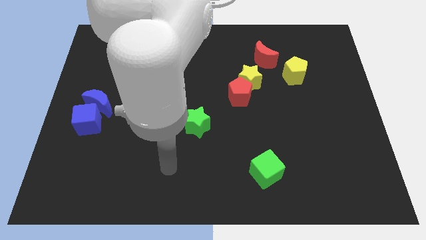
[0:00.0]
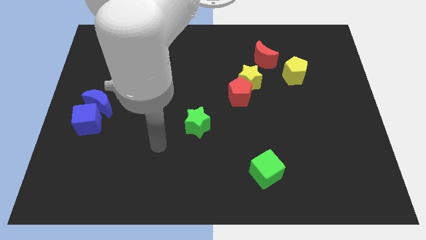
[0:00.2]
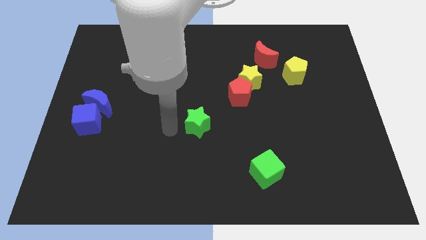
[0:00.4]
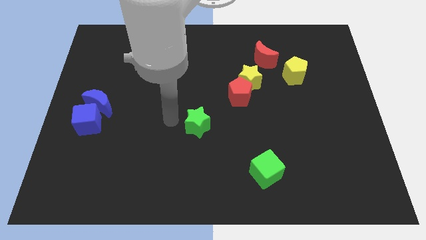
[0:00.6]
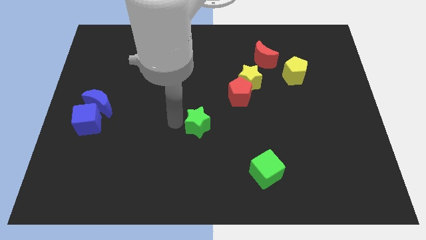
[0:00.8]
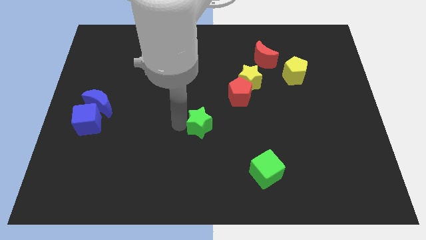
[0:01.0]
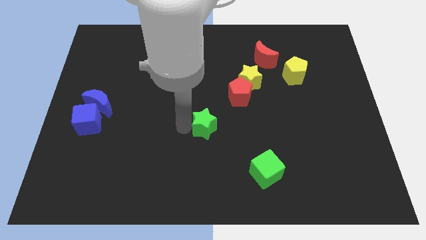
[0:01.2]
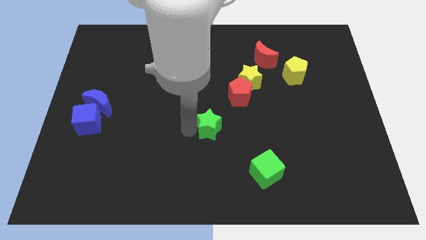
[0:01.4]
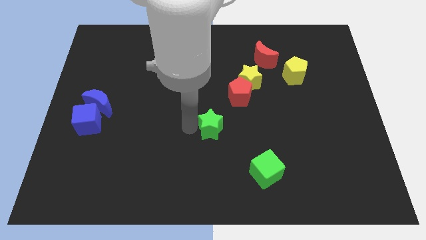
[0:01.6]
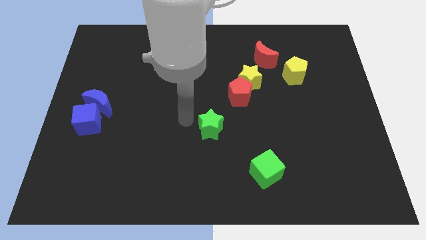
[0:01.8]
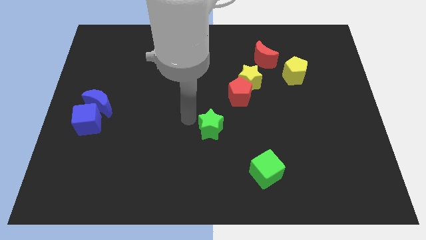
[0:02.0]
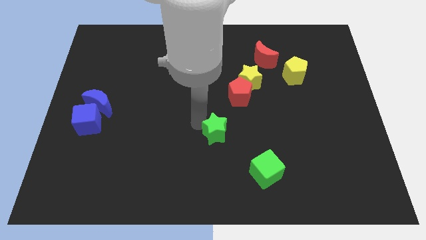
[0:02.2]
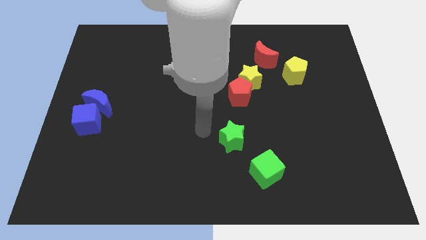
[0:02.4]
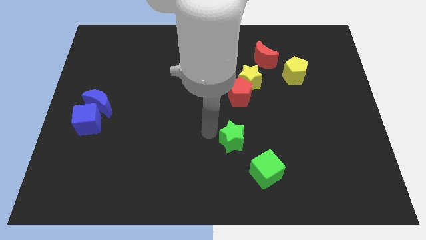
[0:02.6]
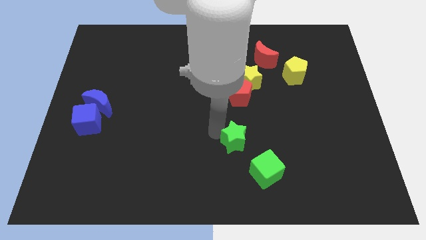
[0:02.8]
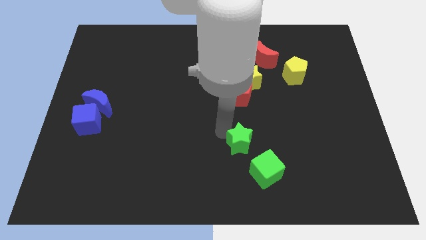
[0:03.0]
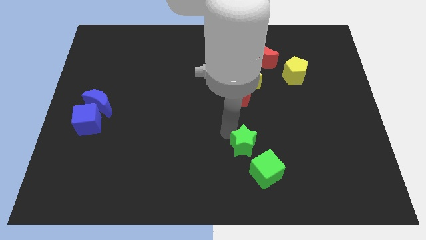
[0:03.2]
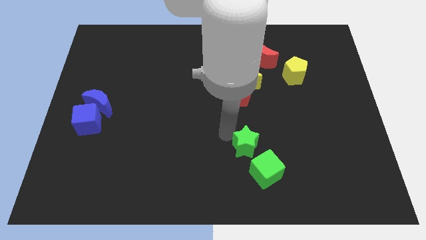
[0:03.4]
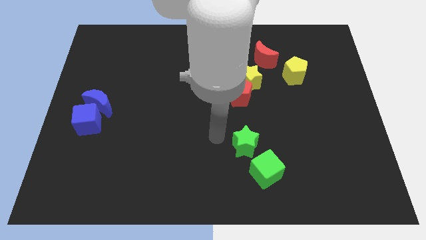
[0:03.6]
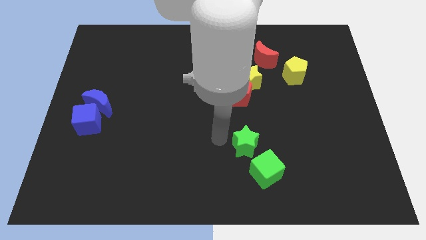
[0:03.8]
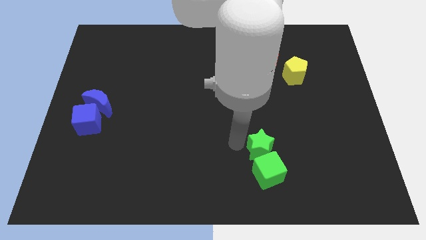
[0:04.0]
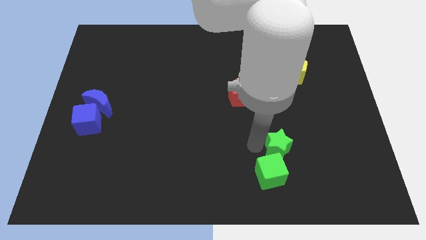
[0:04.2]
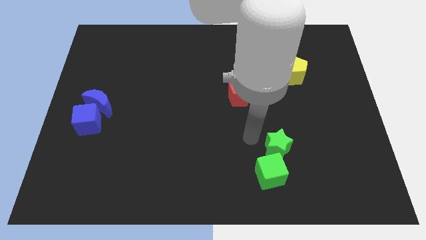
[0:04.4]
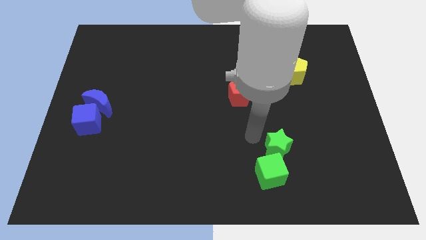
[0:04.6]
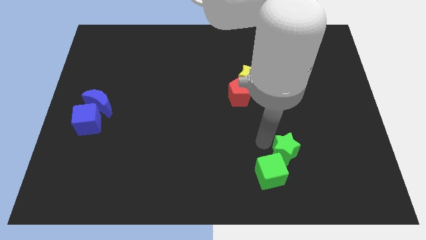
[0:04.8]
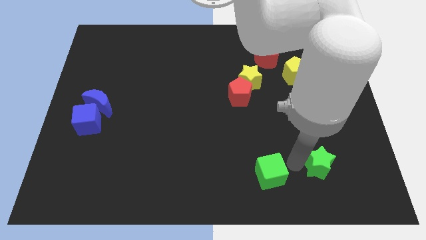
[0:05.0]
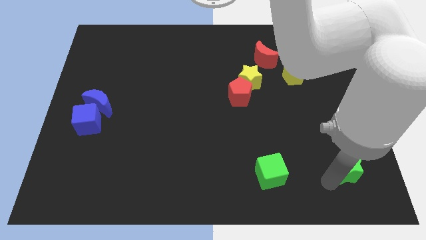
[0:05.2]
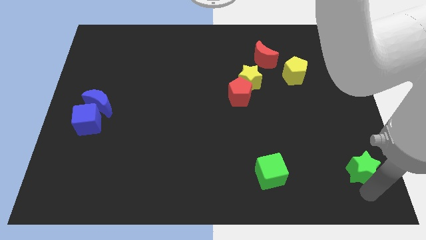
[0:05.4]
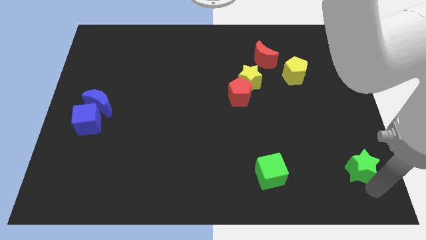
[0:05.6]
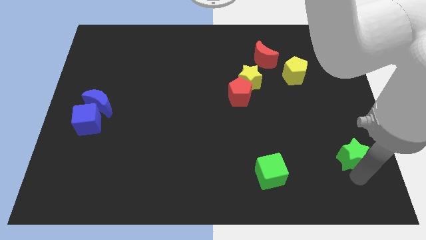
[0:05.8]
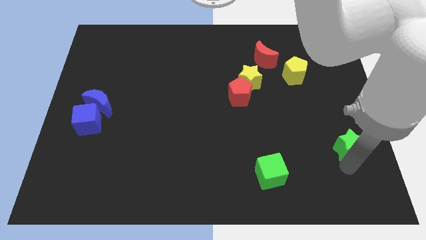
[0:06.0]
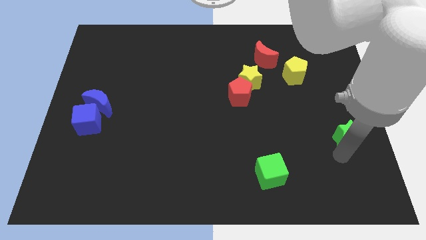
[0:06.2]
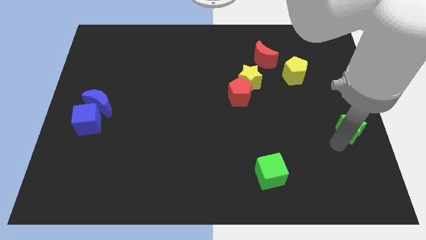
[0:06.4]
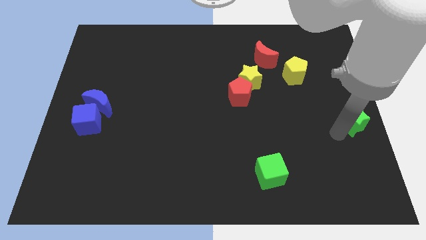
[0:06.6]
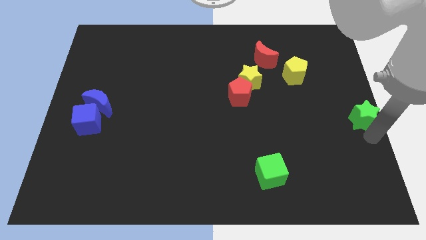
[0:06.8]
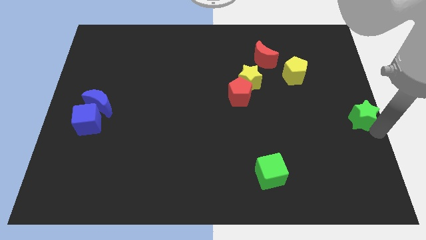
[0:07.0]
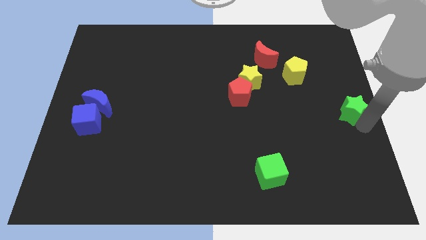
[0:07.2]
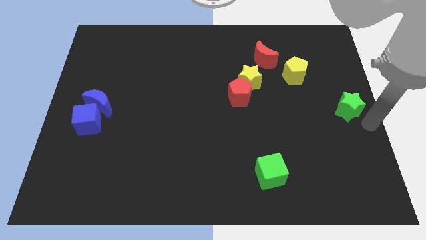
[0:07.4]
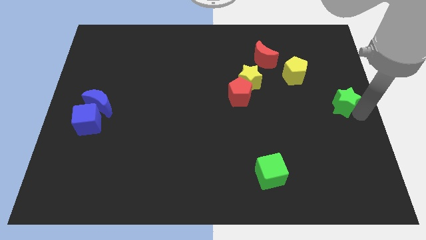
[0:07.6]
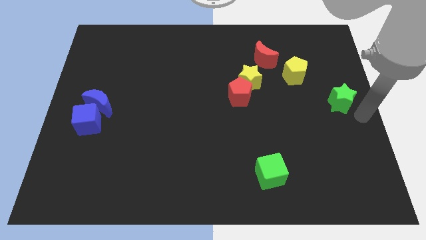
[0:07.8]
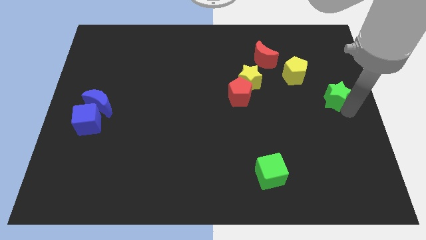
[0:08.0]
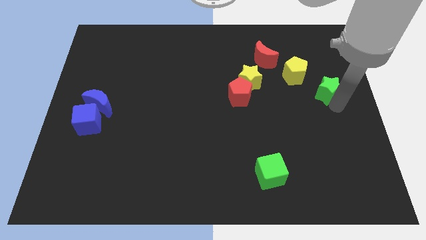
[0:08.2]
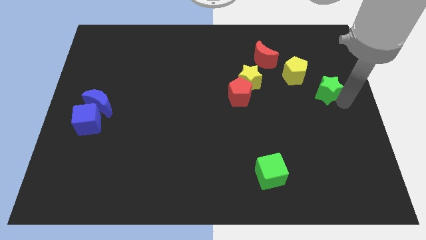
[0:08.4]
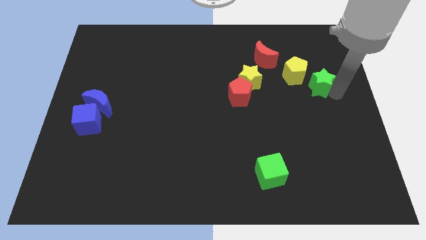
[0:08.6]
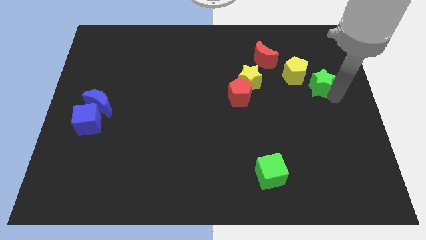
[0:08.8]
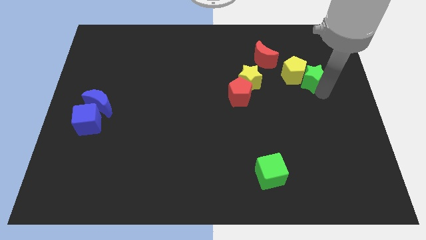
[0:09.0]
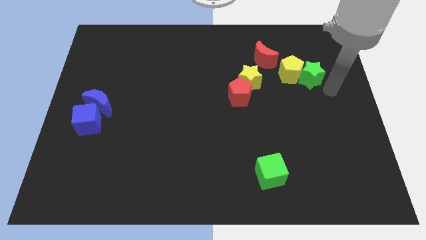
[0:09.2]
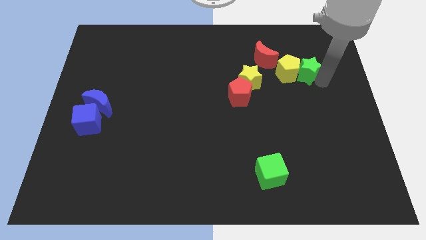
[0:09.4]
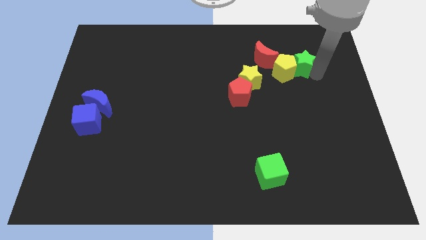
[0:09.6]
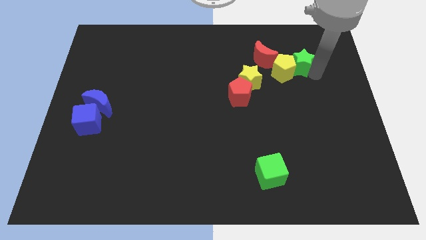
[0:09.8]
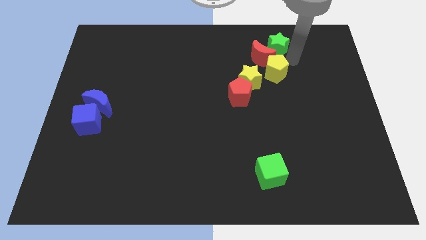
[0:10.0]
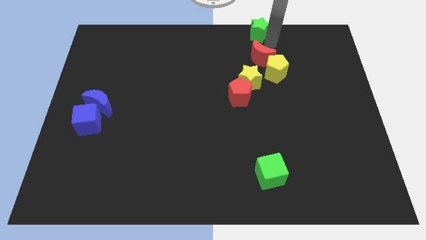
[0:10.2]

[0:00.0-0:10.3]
put the green star to the towards your base

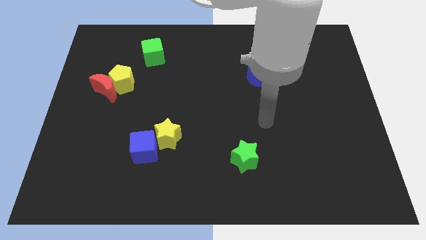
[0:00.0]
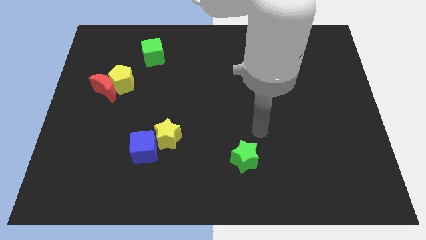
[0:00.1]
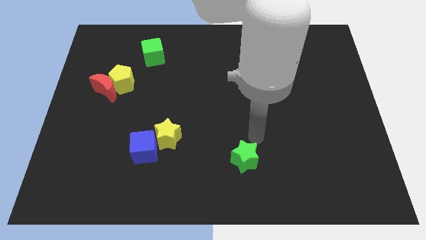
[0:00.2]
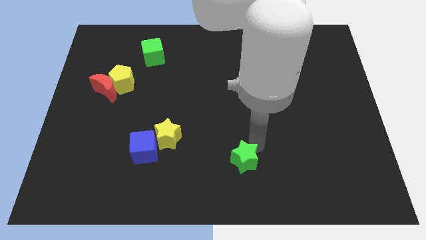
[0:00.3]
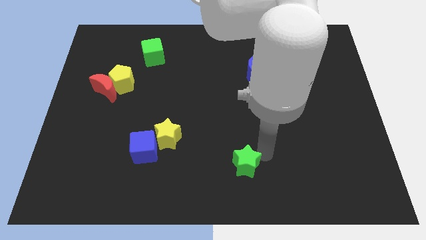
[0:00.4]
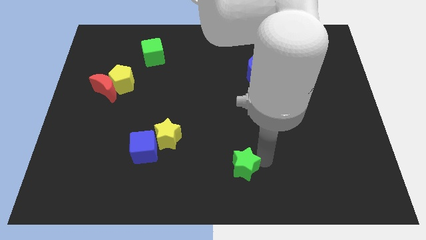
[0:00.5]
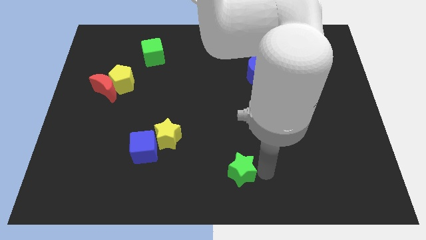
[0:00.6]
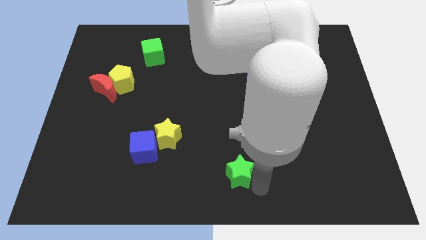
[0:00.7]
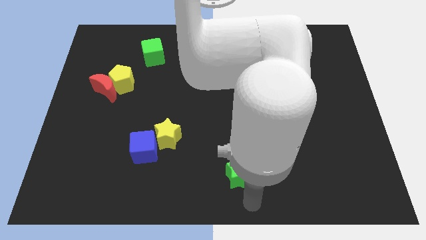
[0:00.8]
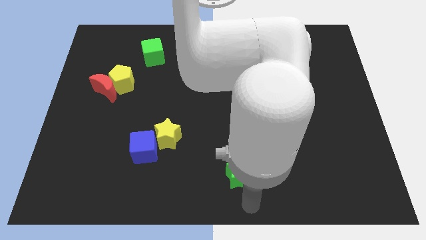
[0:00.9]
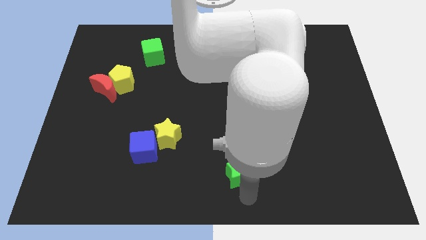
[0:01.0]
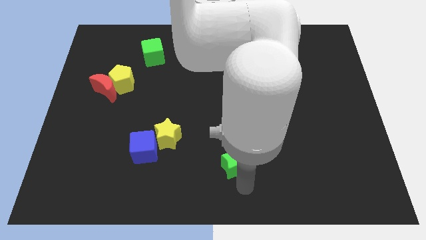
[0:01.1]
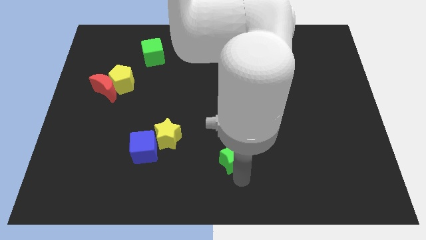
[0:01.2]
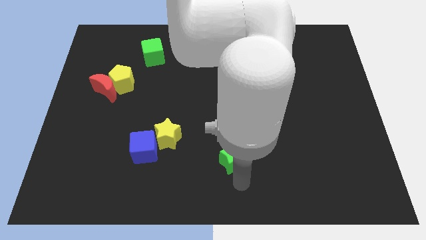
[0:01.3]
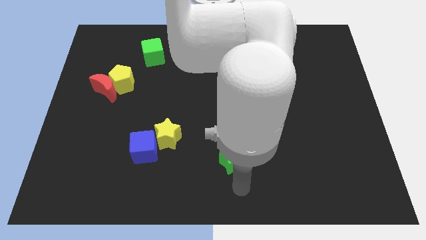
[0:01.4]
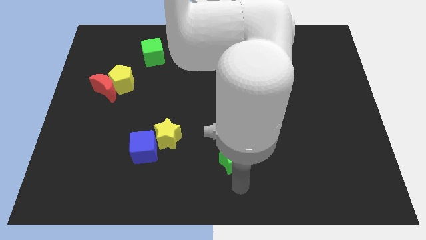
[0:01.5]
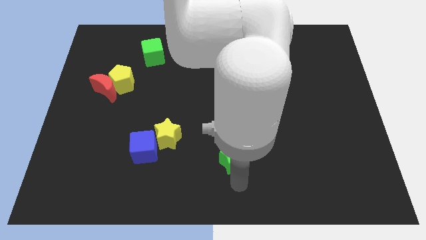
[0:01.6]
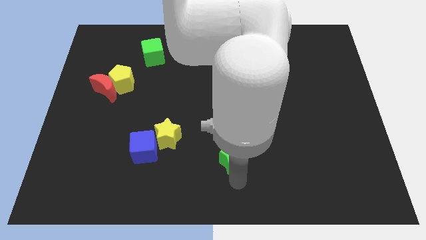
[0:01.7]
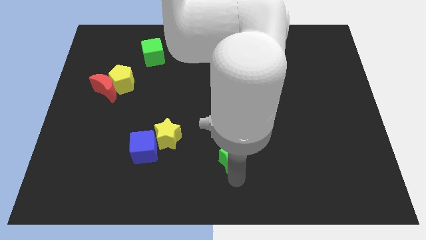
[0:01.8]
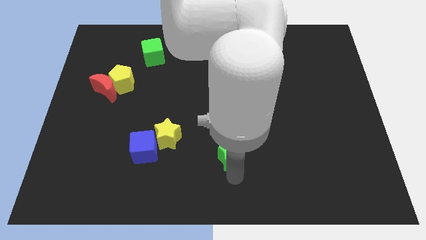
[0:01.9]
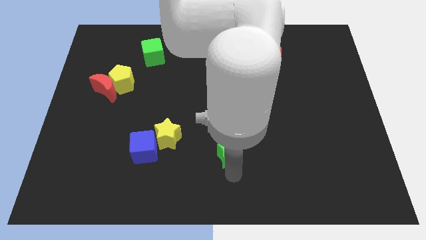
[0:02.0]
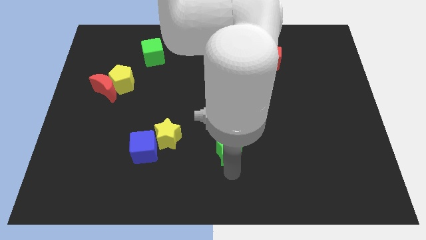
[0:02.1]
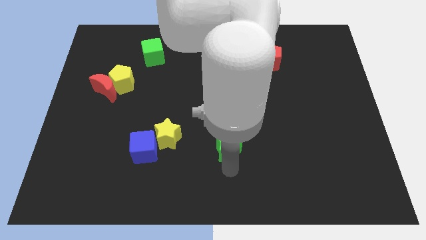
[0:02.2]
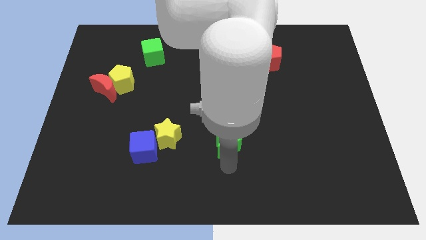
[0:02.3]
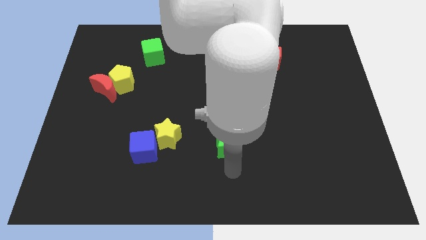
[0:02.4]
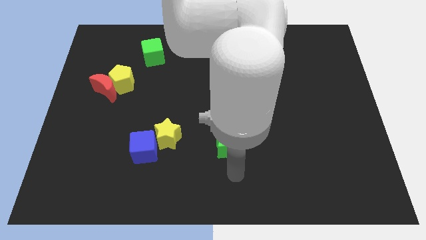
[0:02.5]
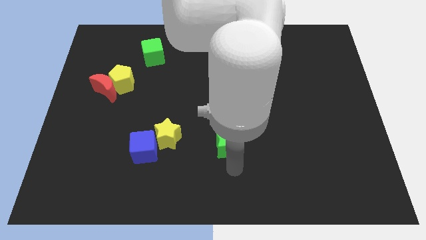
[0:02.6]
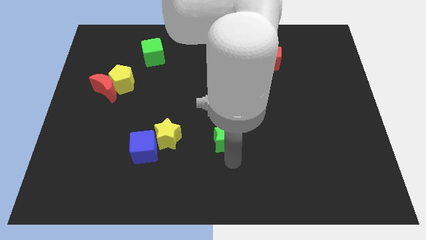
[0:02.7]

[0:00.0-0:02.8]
push the green star to the center of the board
